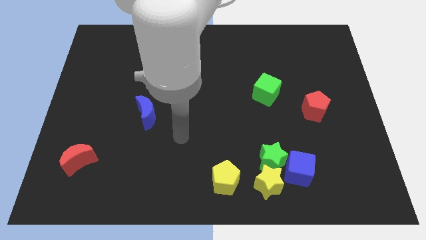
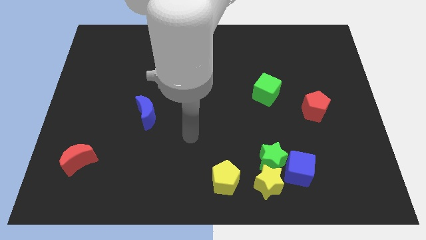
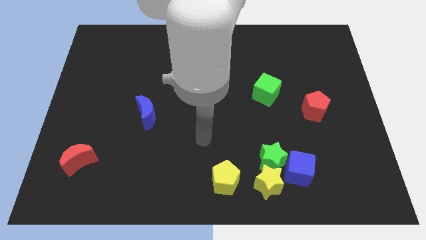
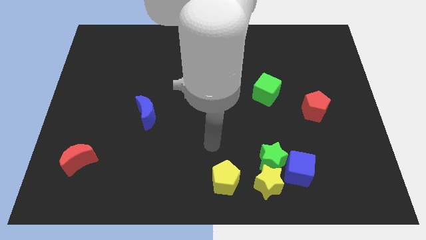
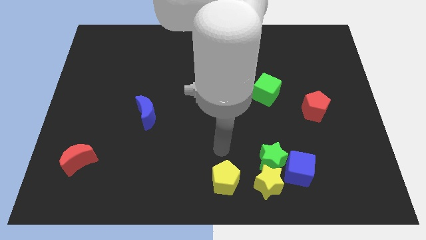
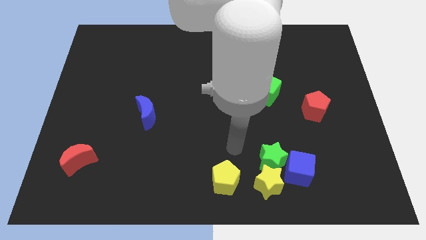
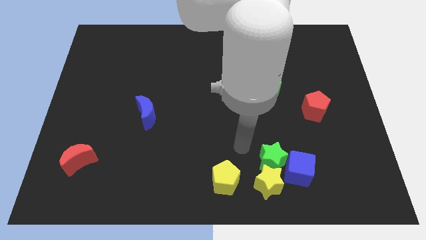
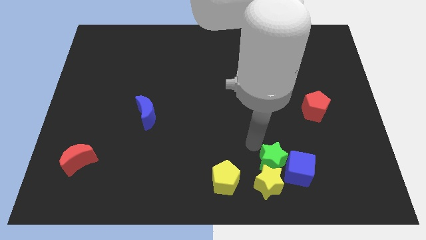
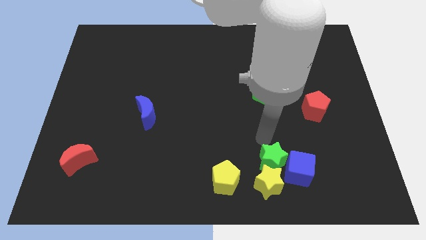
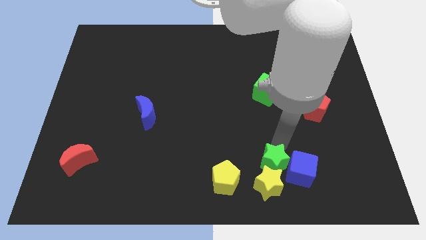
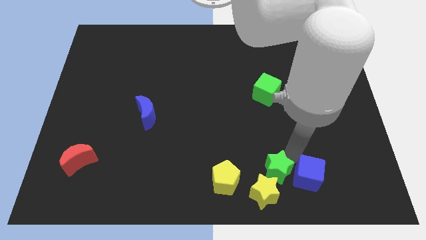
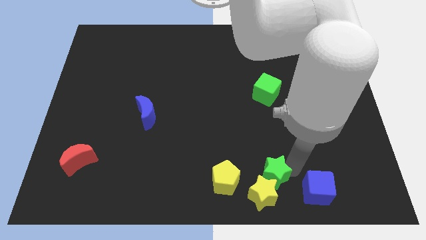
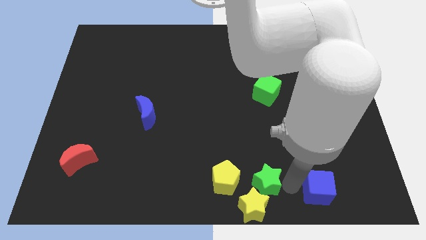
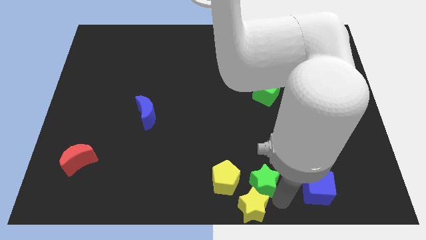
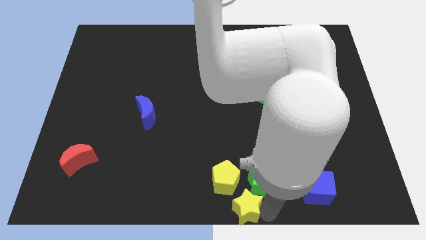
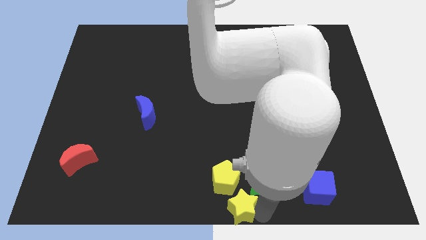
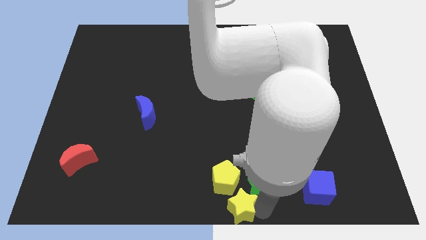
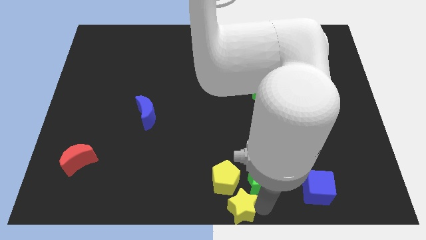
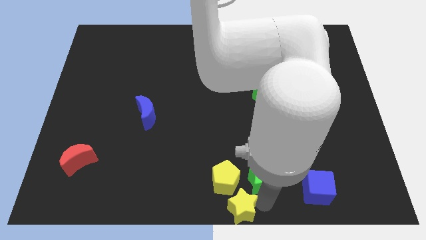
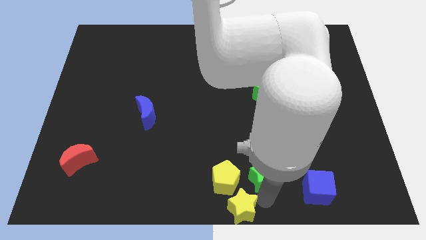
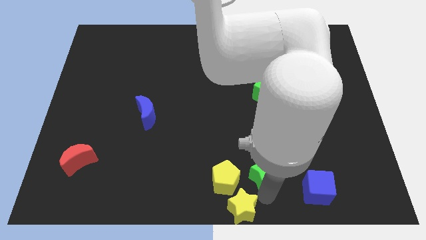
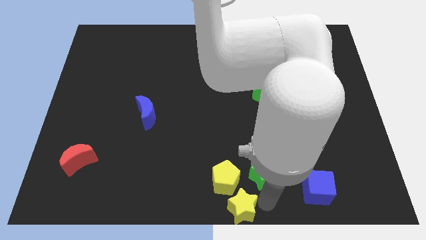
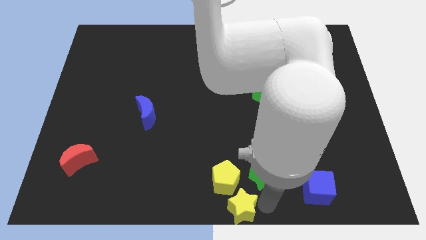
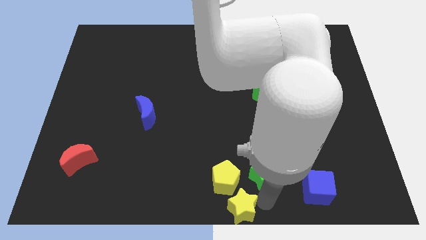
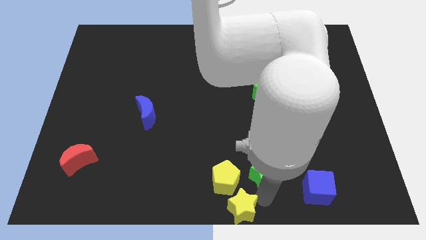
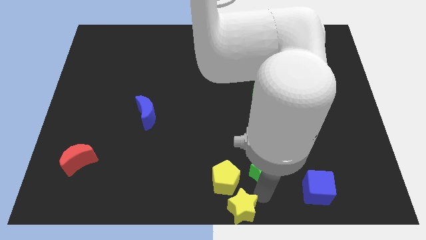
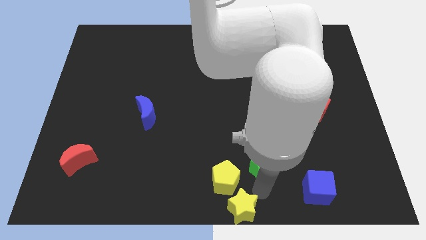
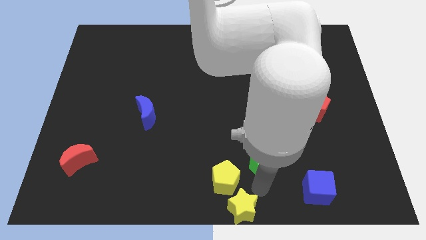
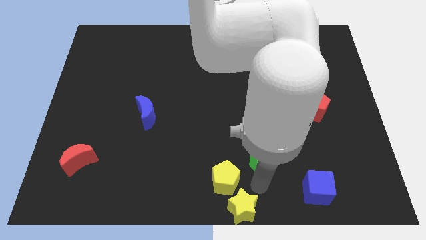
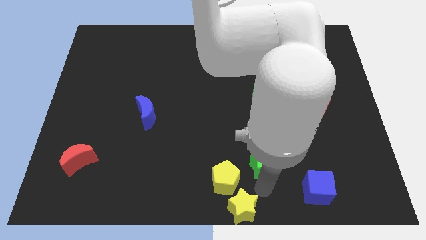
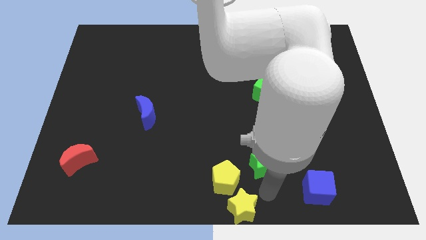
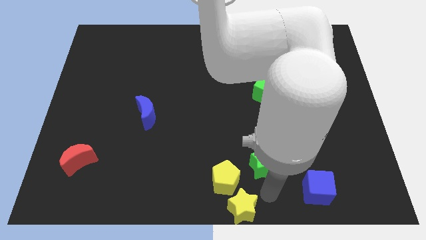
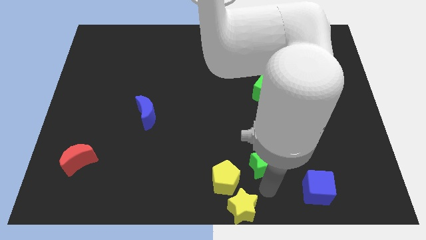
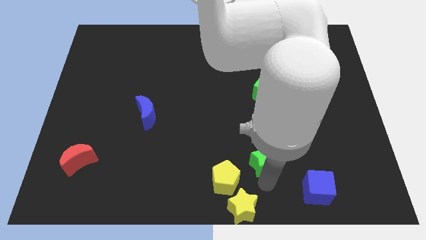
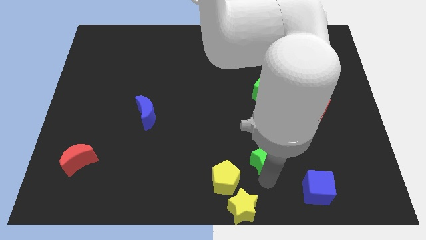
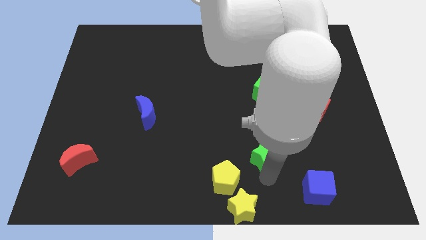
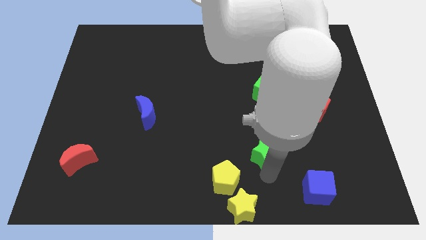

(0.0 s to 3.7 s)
separate the green star from the yellow star and blue cube

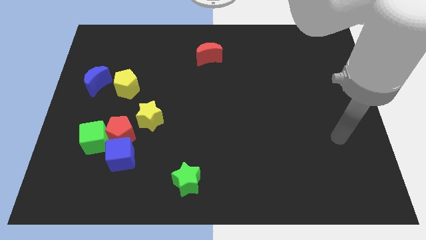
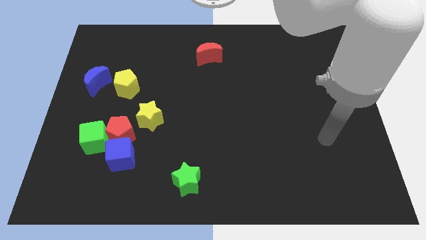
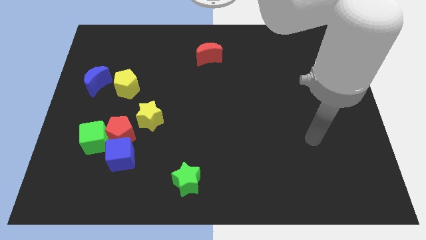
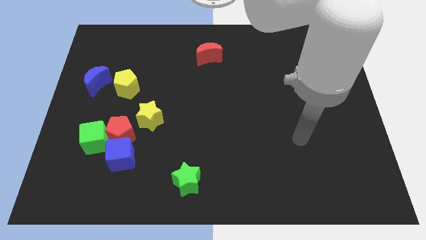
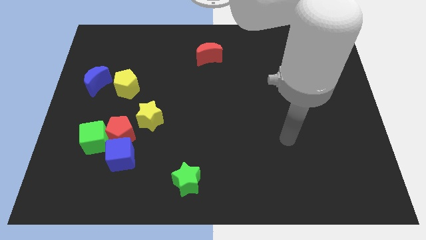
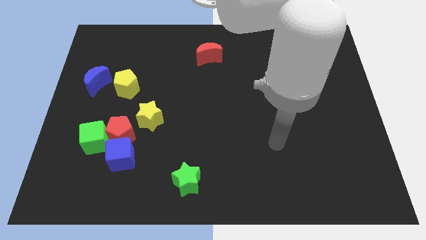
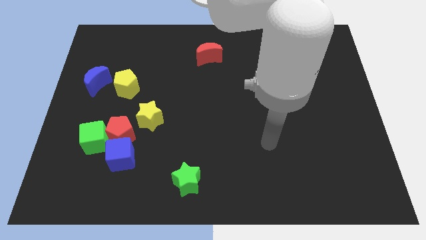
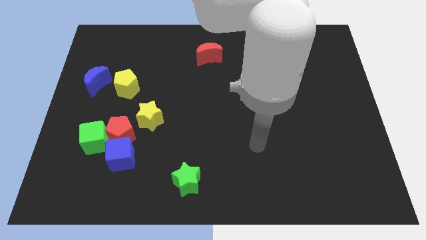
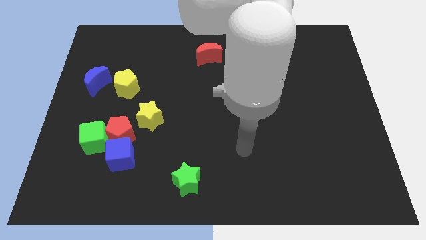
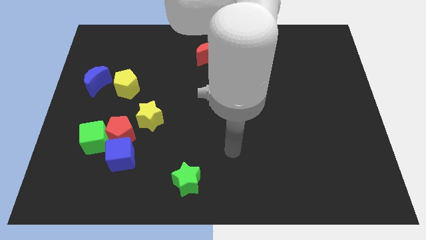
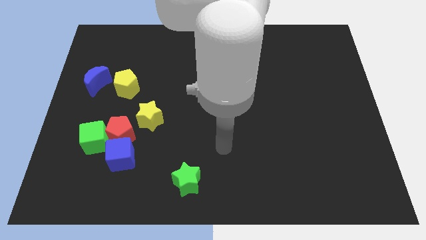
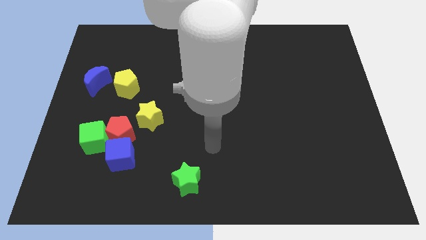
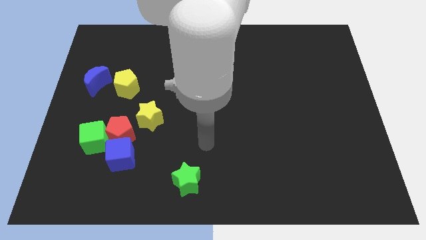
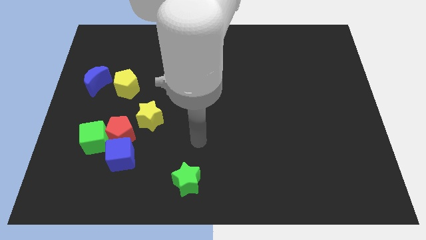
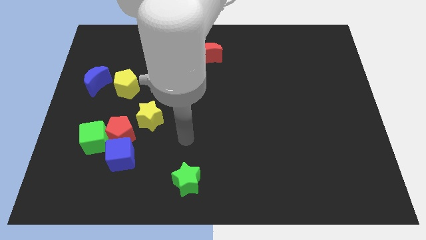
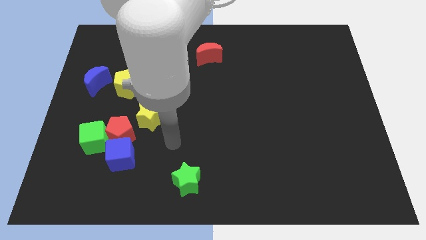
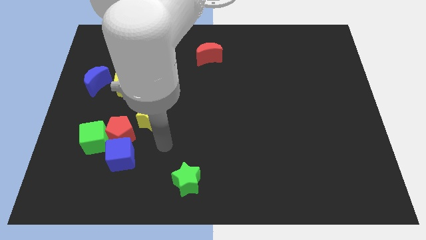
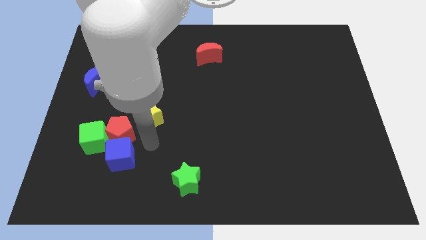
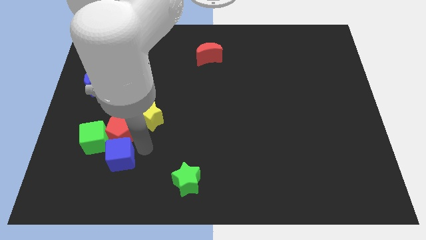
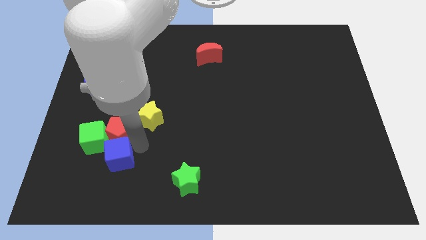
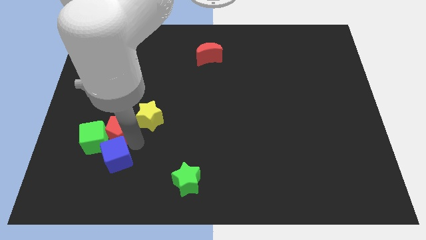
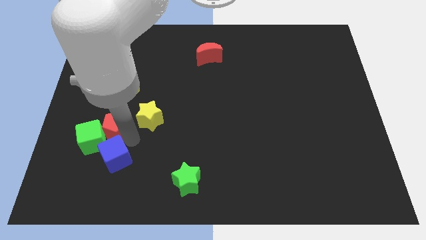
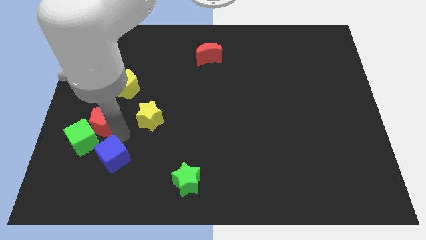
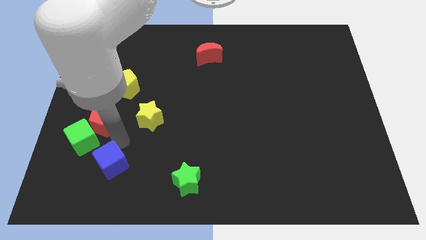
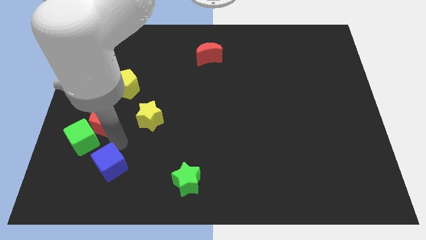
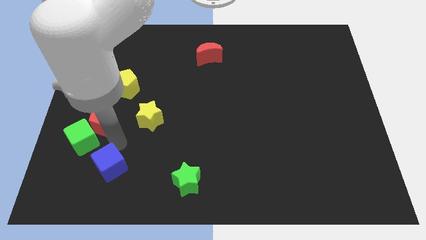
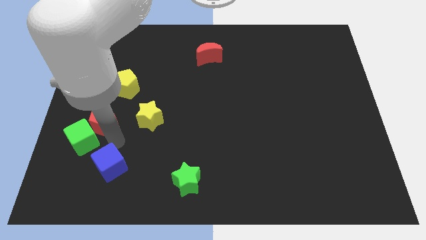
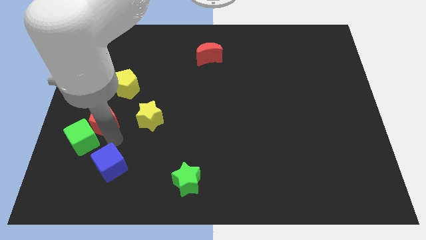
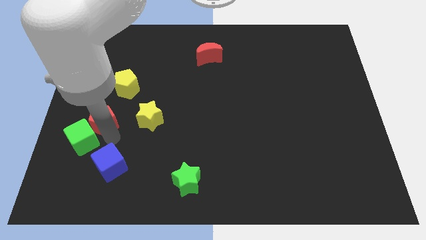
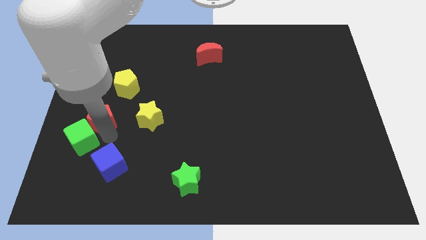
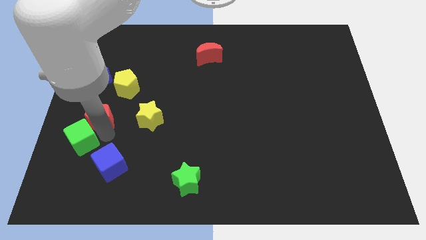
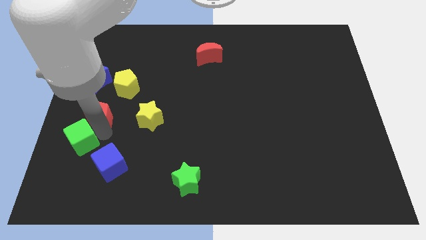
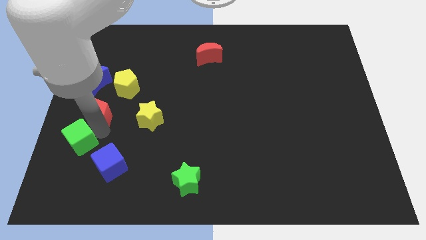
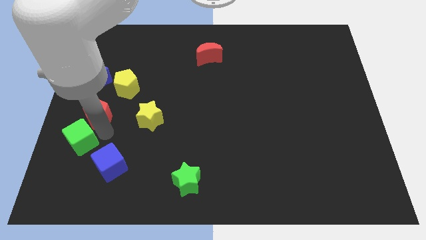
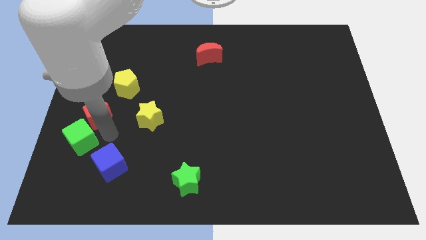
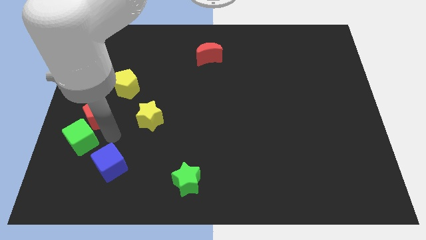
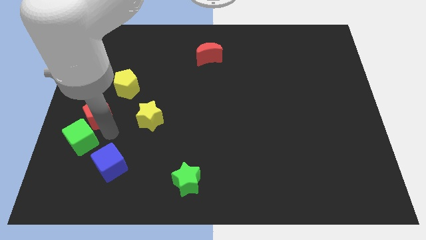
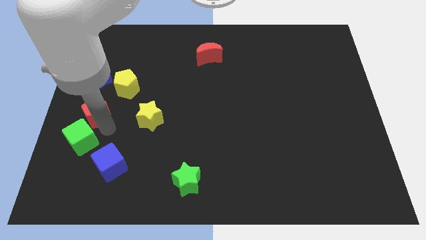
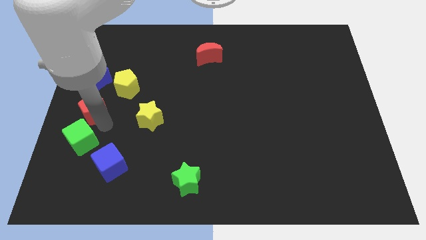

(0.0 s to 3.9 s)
separate the red pentagon from the green cube, blue cube, and yellow star

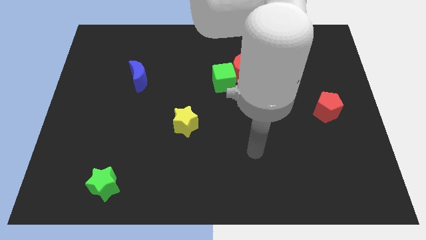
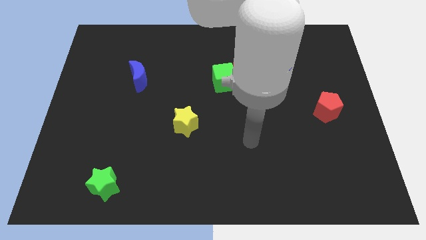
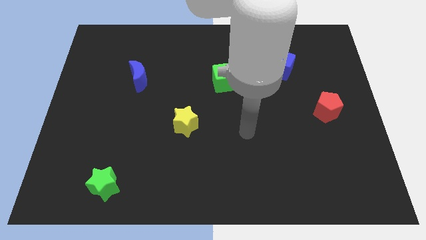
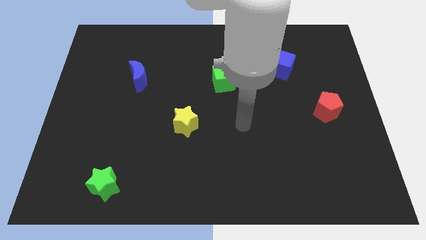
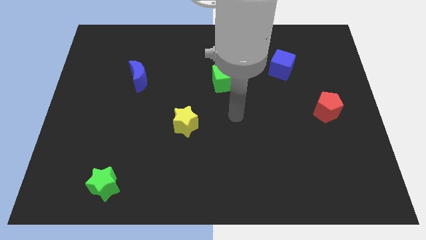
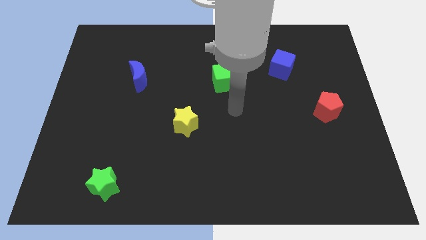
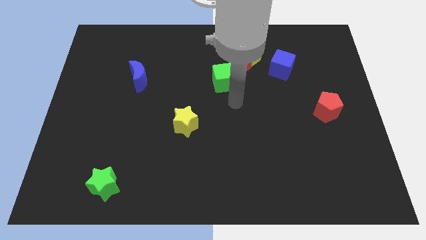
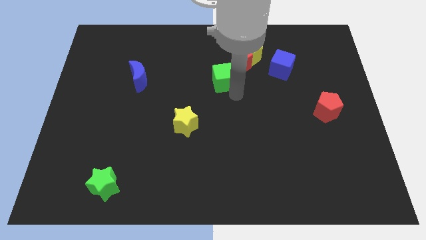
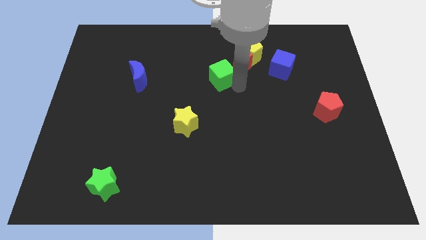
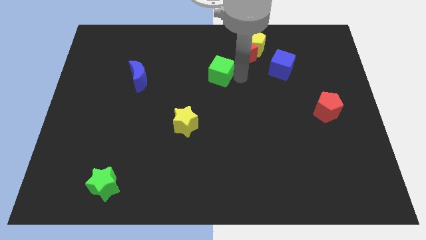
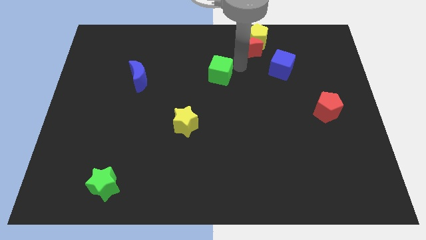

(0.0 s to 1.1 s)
move the green cube away from the red moon

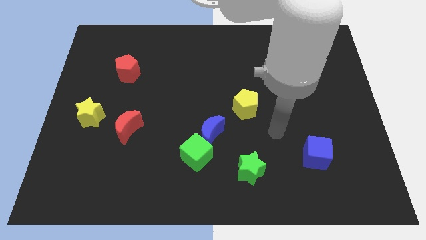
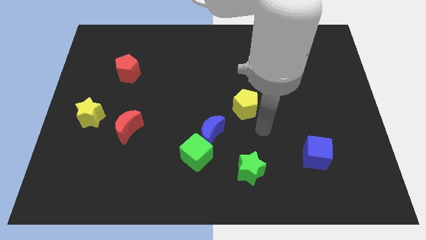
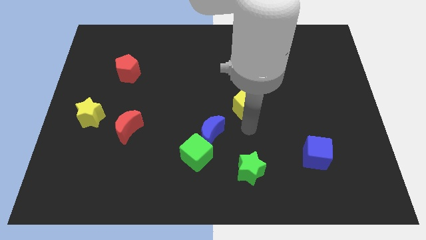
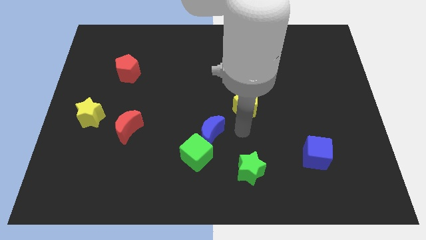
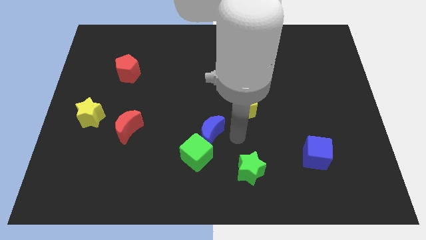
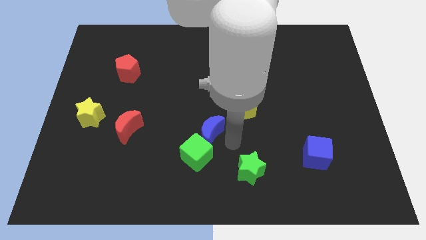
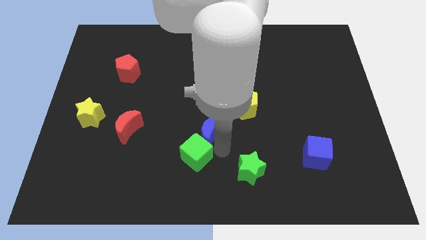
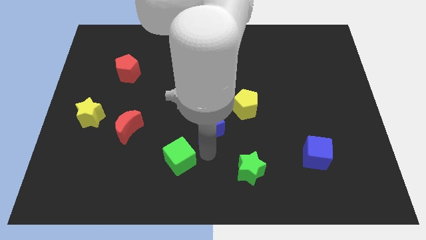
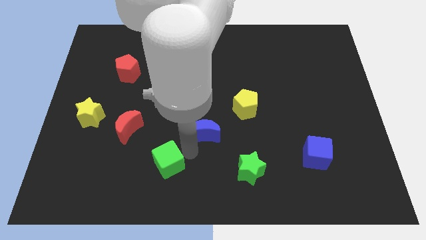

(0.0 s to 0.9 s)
pull the blue moon apart from the green cube
